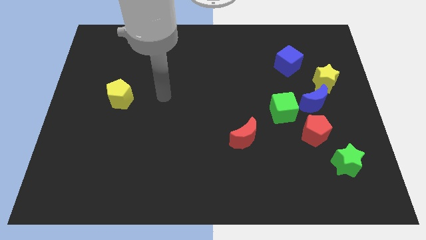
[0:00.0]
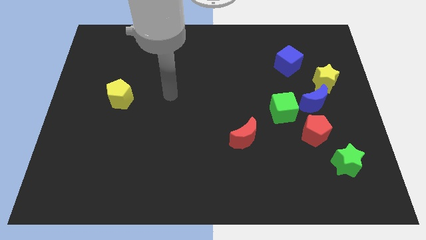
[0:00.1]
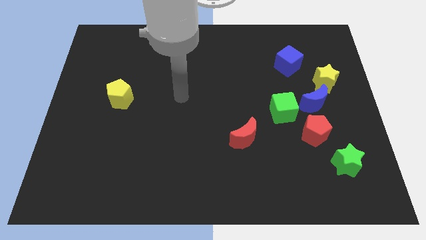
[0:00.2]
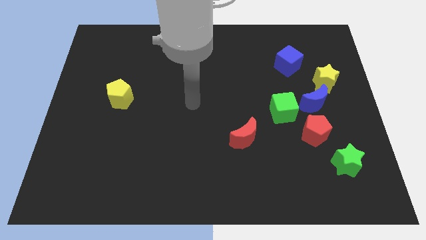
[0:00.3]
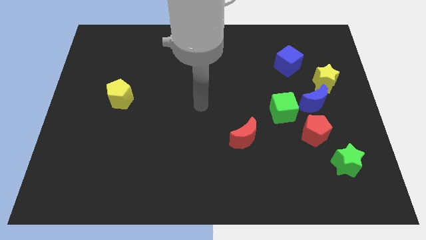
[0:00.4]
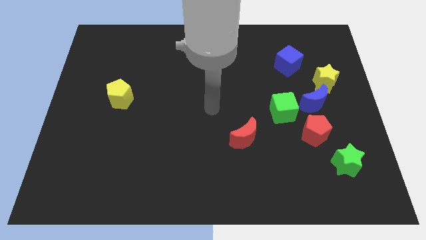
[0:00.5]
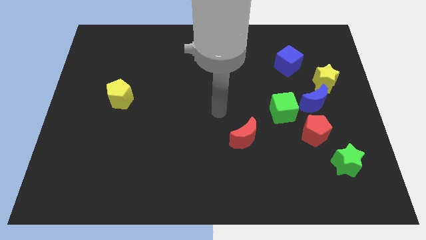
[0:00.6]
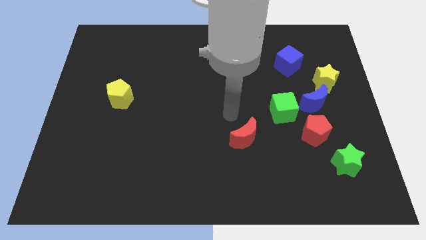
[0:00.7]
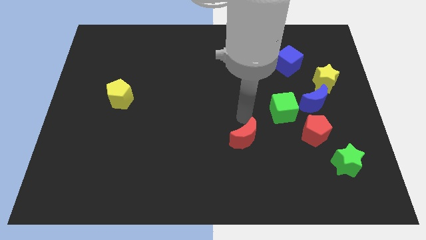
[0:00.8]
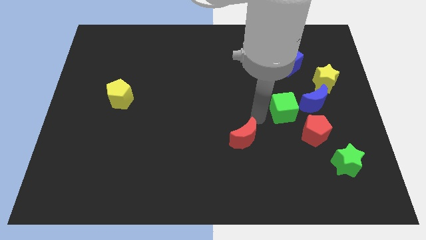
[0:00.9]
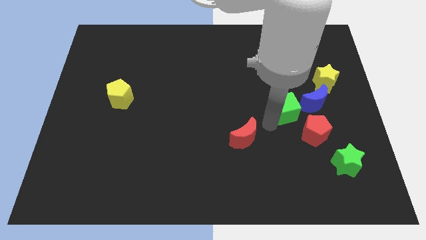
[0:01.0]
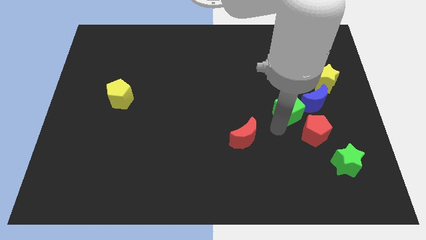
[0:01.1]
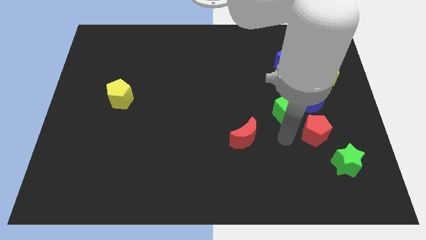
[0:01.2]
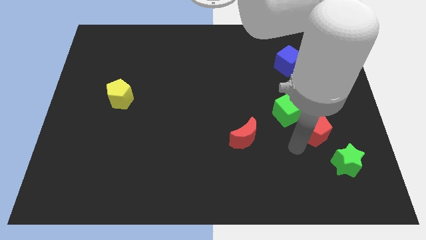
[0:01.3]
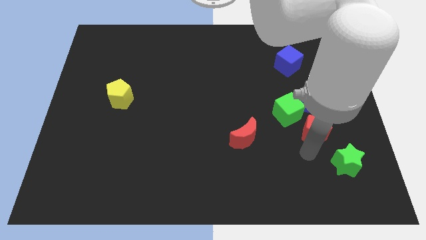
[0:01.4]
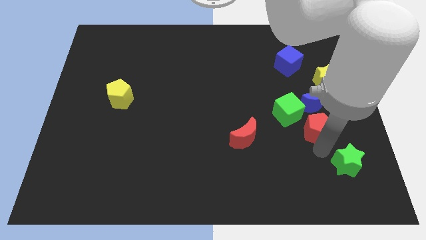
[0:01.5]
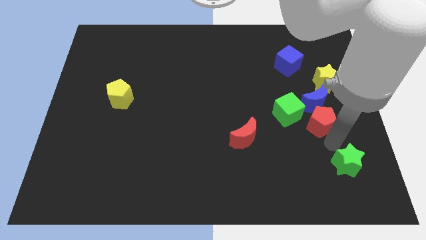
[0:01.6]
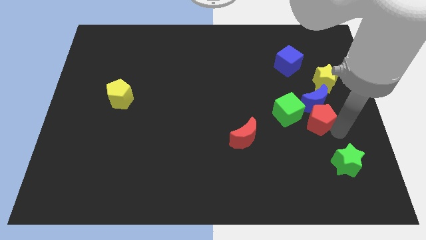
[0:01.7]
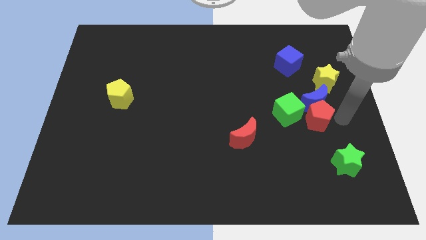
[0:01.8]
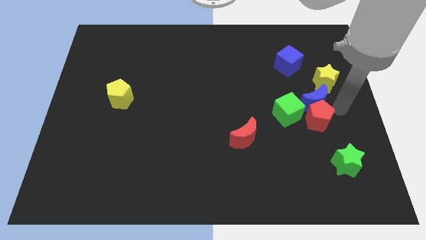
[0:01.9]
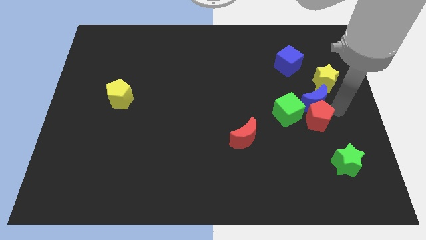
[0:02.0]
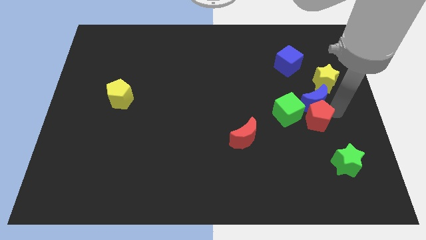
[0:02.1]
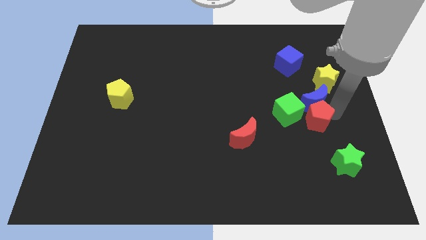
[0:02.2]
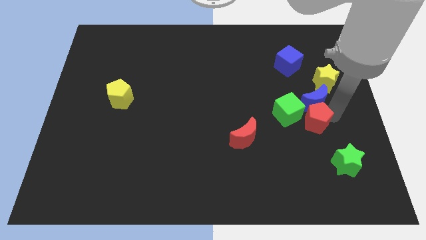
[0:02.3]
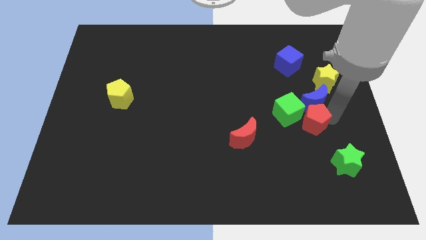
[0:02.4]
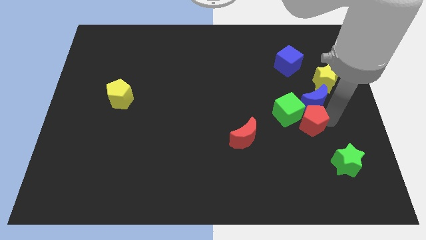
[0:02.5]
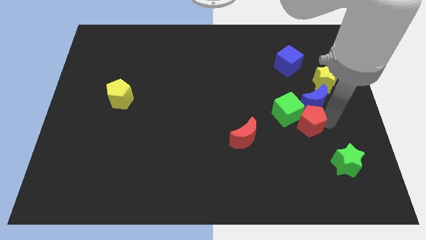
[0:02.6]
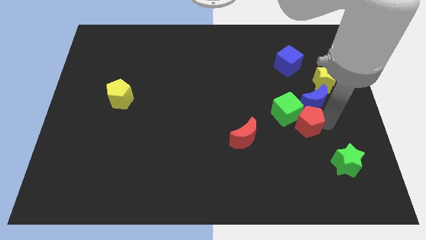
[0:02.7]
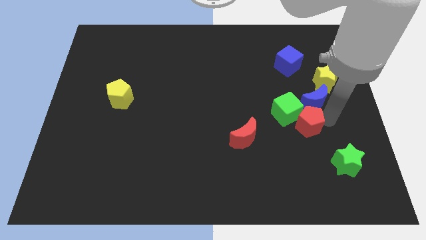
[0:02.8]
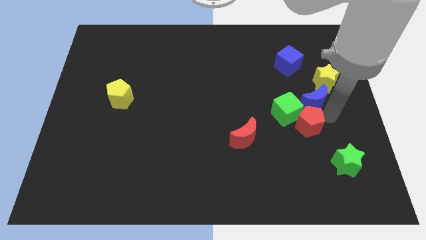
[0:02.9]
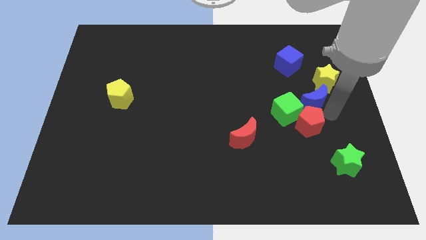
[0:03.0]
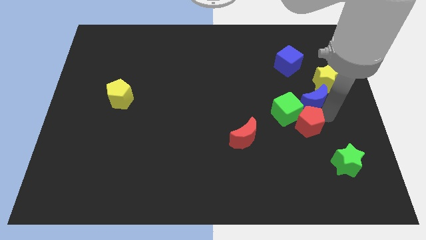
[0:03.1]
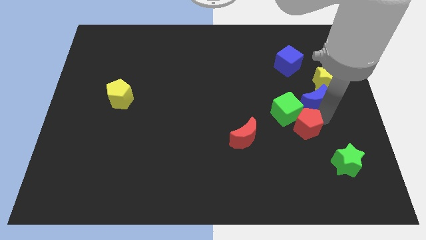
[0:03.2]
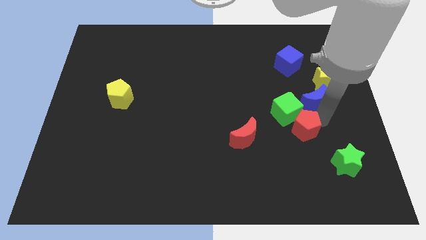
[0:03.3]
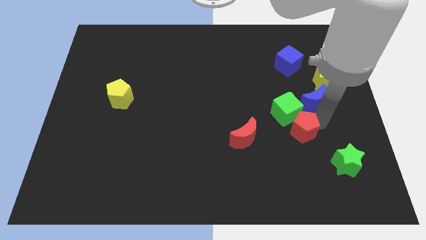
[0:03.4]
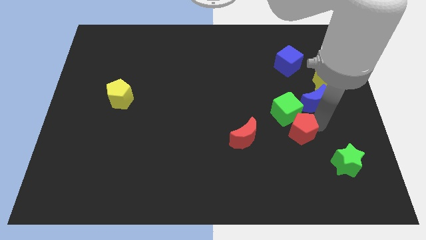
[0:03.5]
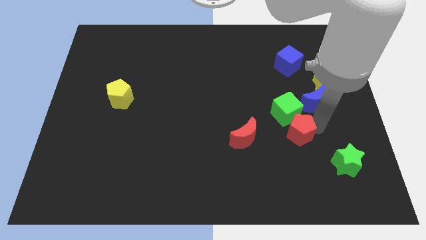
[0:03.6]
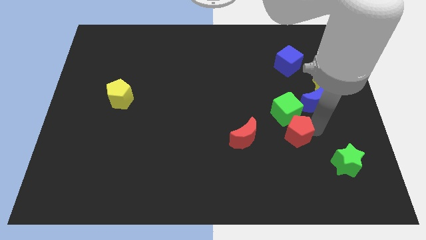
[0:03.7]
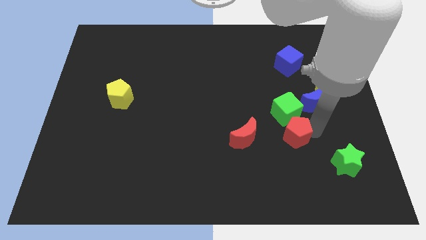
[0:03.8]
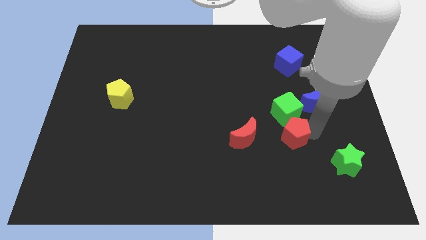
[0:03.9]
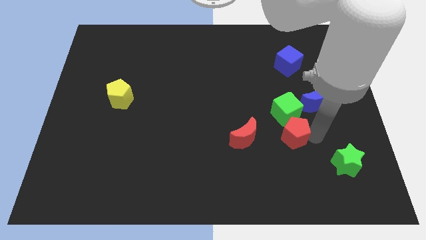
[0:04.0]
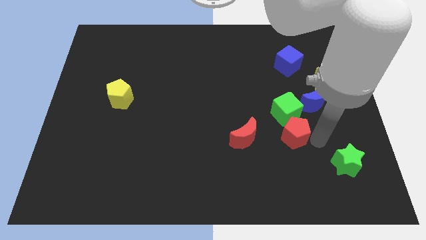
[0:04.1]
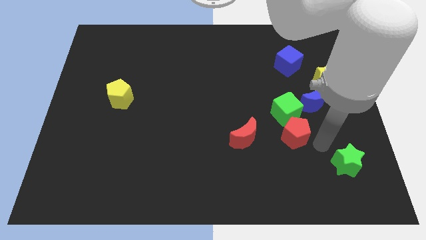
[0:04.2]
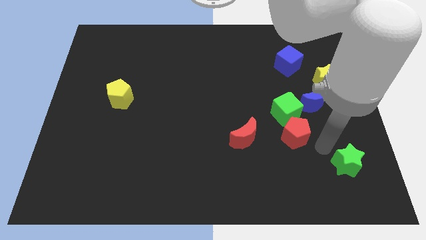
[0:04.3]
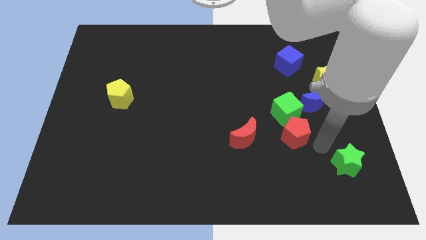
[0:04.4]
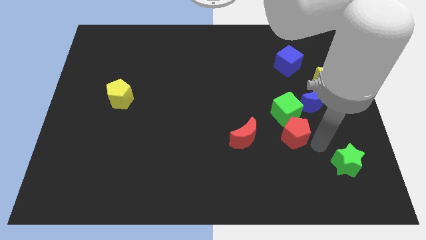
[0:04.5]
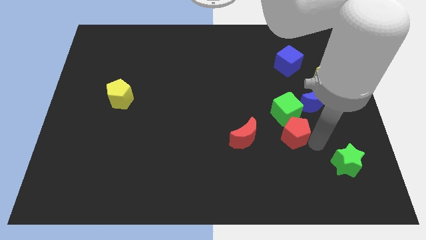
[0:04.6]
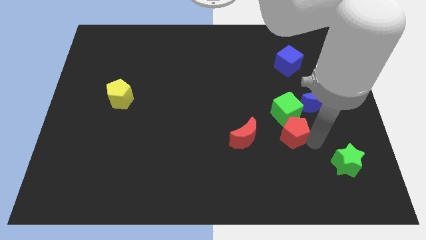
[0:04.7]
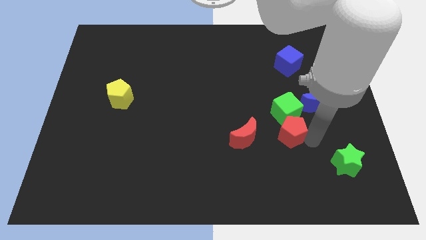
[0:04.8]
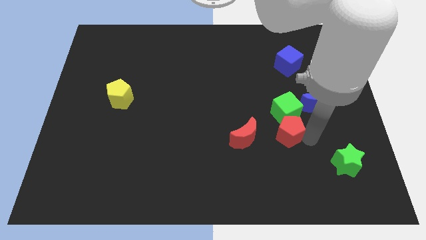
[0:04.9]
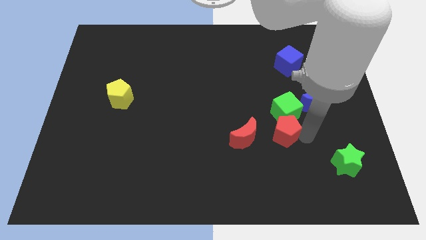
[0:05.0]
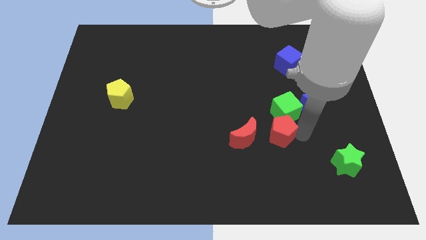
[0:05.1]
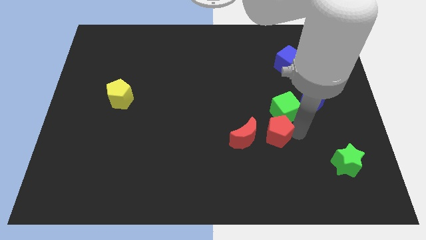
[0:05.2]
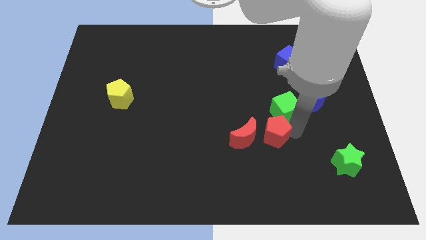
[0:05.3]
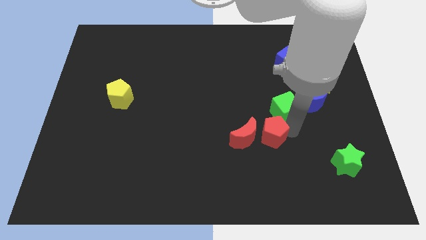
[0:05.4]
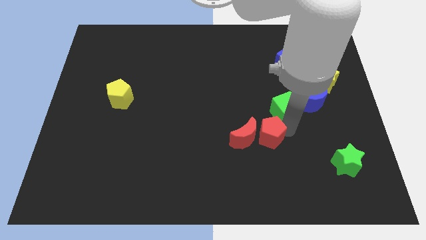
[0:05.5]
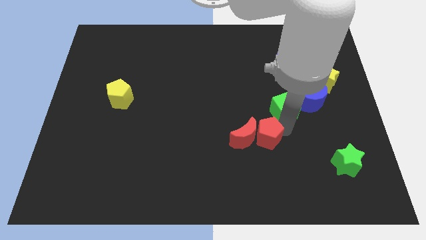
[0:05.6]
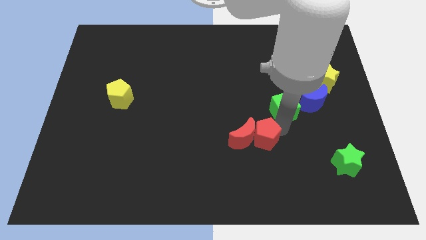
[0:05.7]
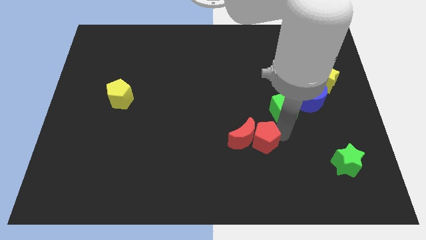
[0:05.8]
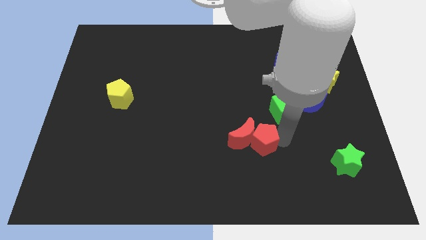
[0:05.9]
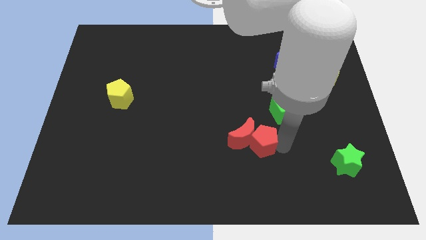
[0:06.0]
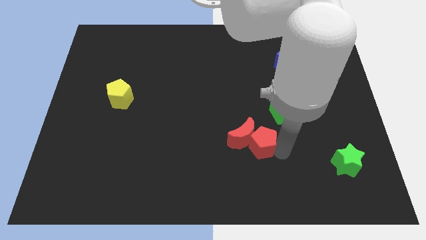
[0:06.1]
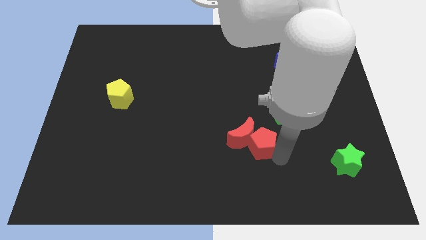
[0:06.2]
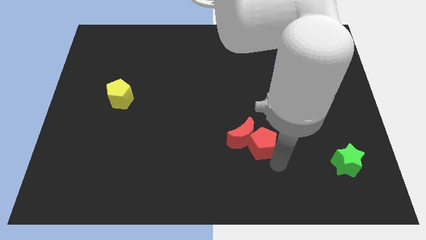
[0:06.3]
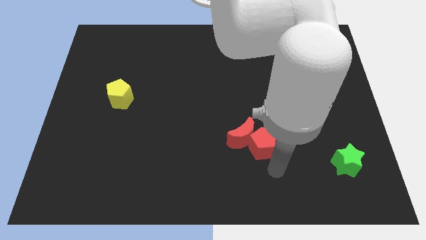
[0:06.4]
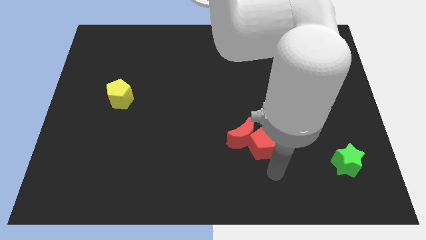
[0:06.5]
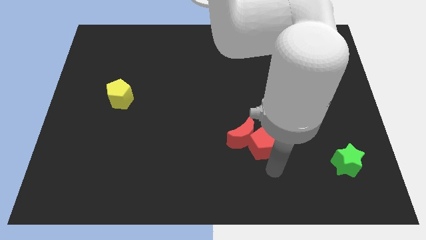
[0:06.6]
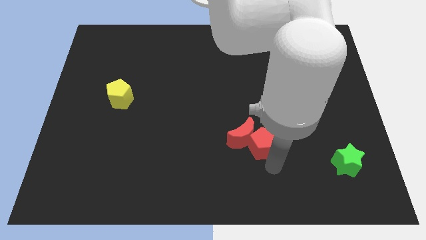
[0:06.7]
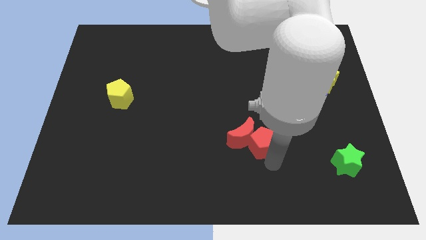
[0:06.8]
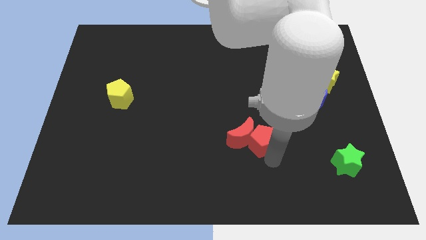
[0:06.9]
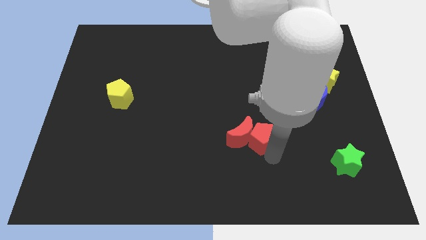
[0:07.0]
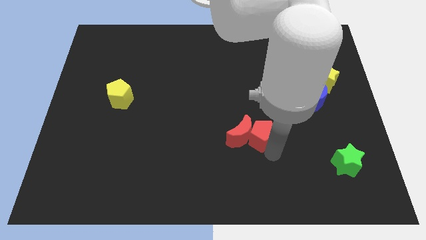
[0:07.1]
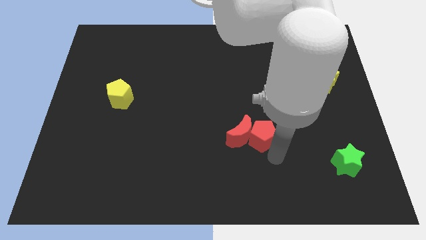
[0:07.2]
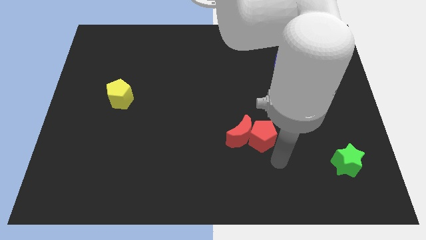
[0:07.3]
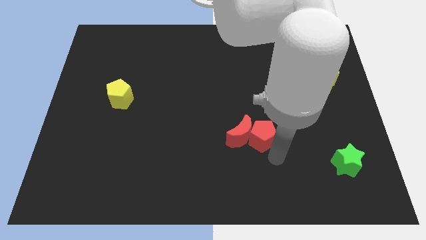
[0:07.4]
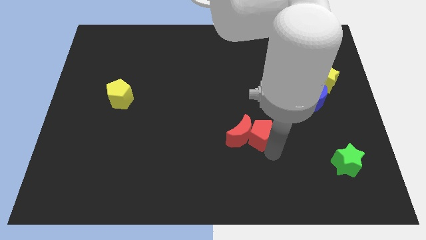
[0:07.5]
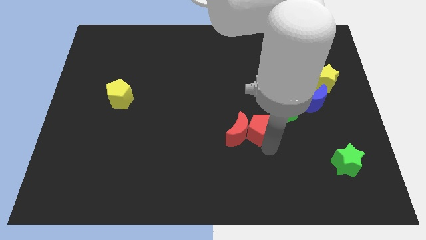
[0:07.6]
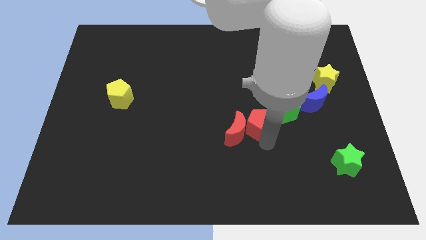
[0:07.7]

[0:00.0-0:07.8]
put the red pentagon just left of the green cube

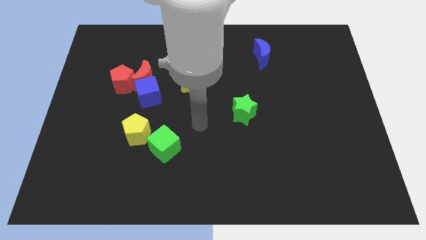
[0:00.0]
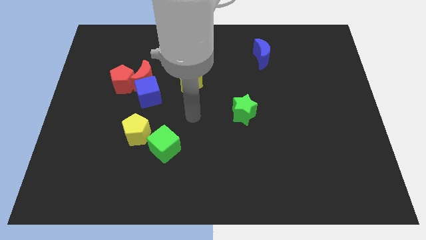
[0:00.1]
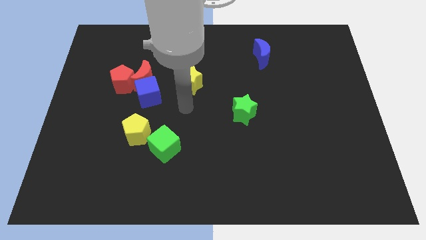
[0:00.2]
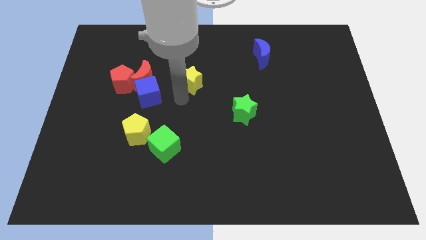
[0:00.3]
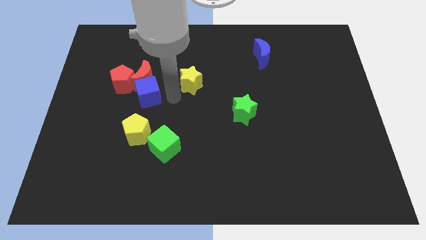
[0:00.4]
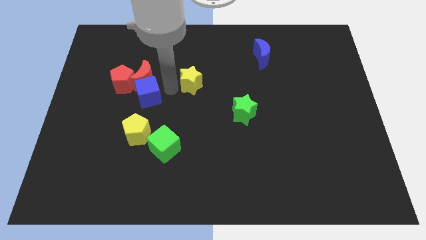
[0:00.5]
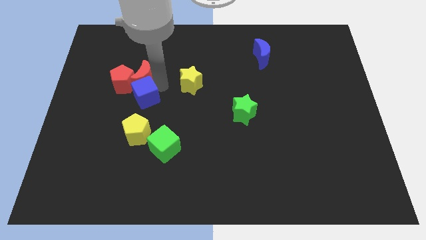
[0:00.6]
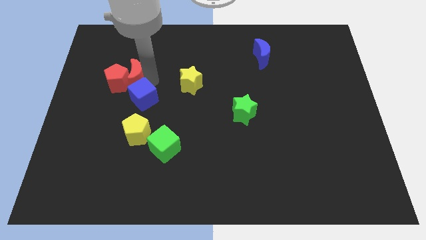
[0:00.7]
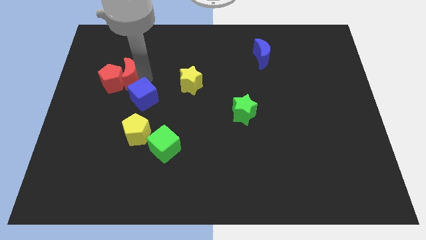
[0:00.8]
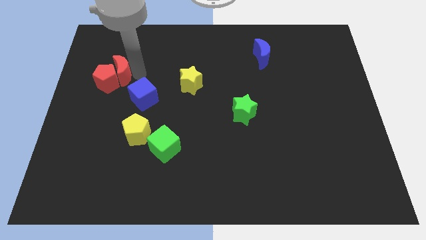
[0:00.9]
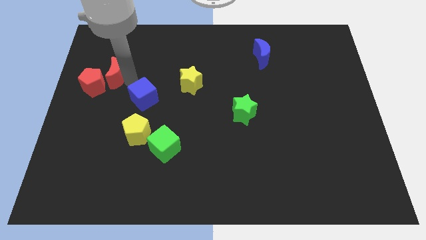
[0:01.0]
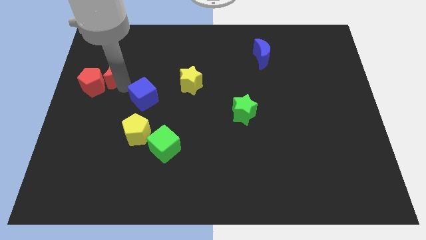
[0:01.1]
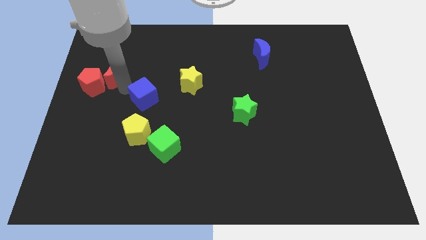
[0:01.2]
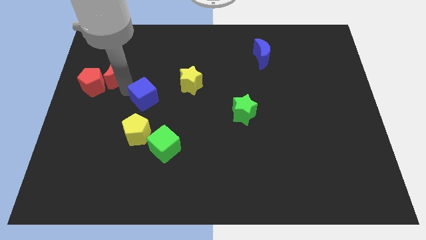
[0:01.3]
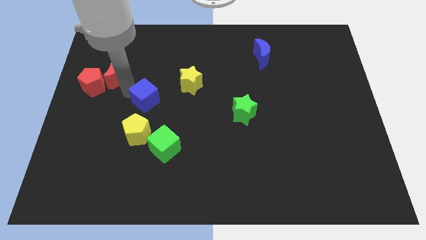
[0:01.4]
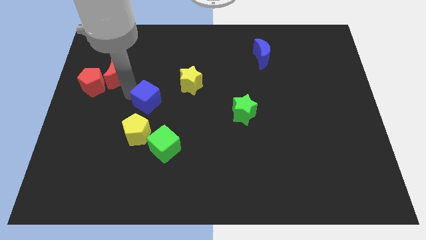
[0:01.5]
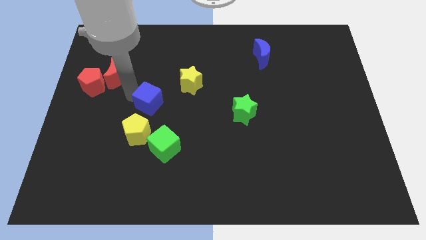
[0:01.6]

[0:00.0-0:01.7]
put the blue cube to the top side of the green cube
